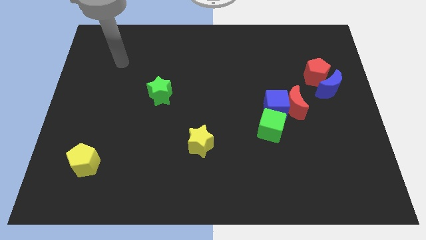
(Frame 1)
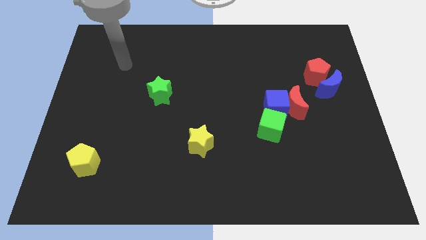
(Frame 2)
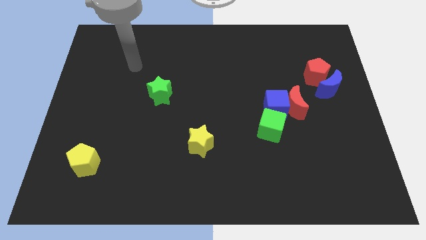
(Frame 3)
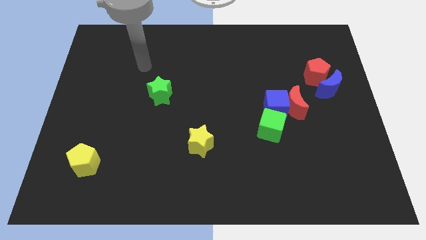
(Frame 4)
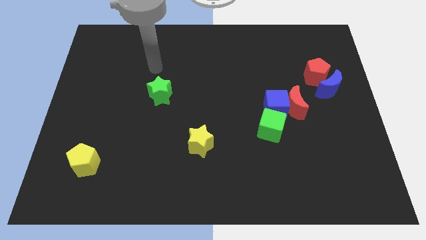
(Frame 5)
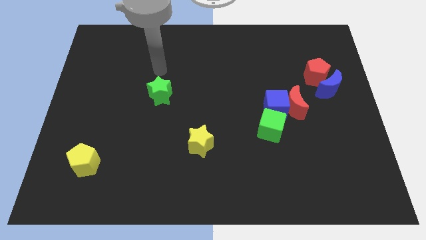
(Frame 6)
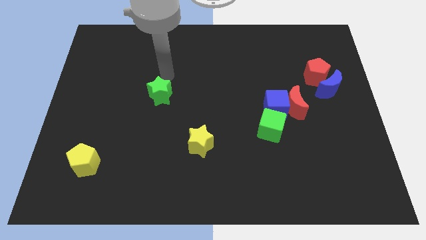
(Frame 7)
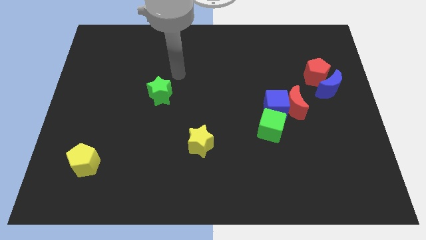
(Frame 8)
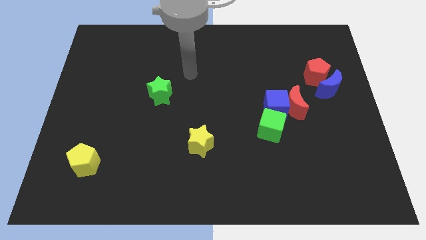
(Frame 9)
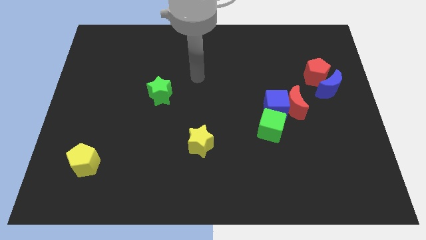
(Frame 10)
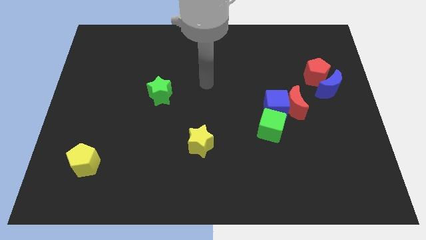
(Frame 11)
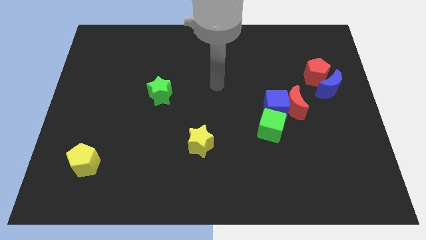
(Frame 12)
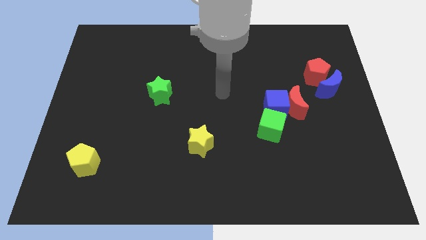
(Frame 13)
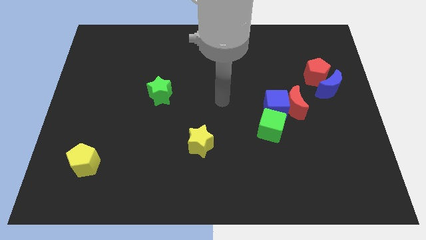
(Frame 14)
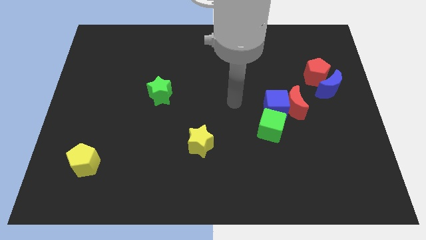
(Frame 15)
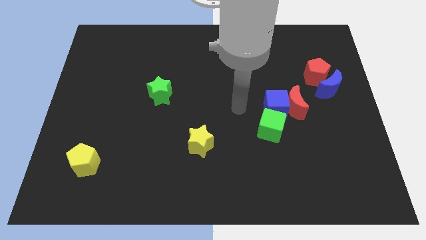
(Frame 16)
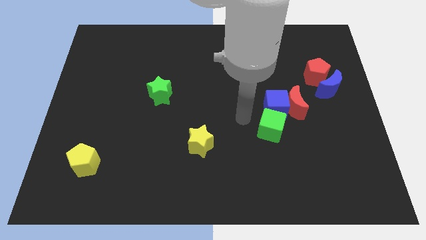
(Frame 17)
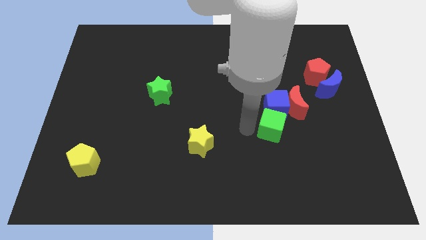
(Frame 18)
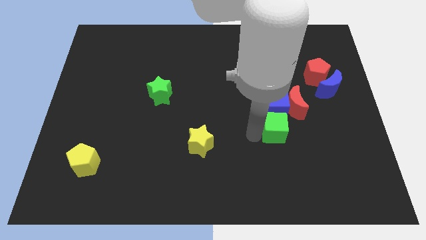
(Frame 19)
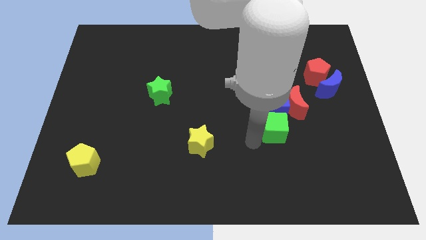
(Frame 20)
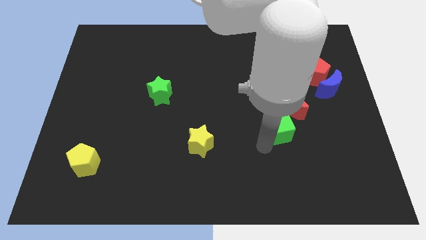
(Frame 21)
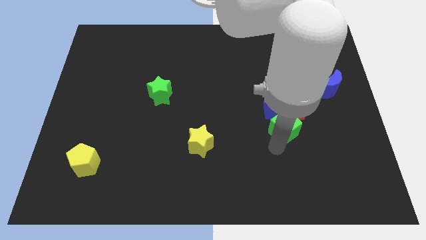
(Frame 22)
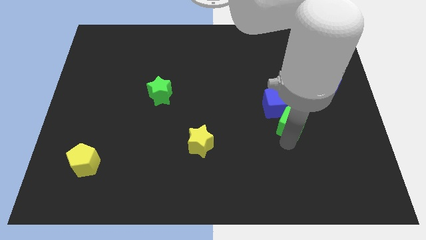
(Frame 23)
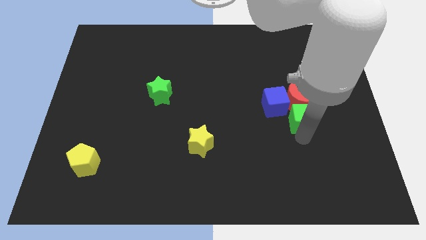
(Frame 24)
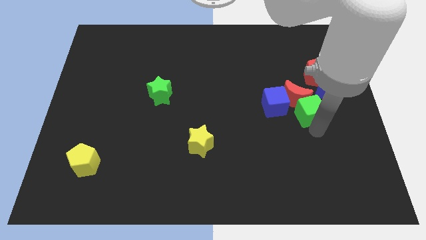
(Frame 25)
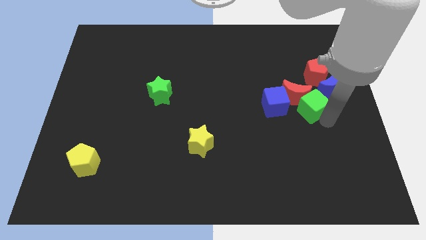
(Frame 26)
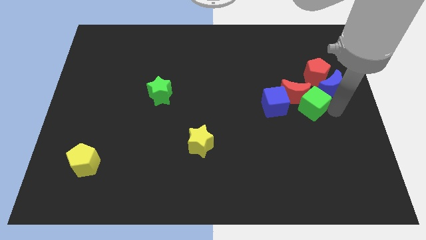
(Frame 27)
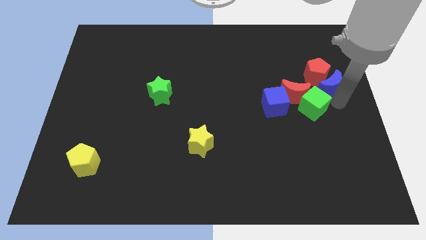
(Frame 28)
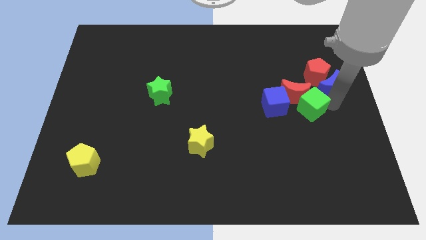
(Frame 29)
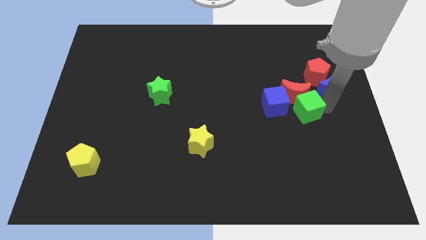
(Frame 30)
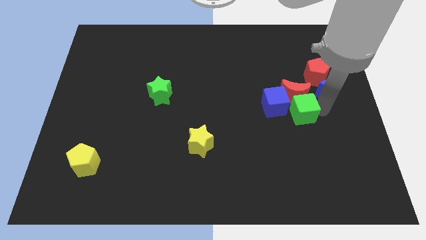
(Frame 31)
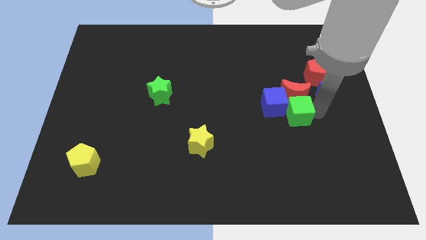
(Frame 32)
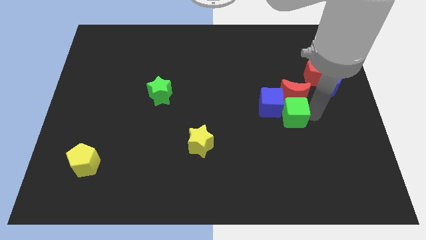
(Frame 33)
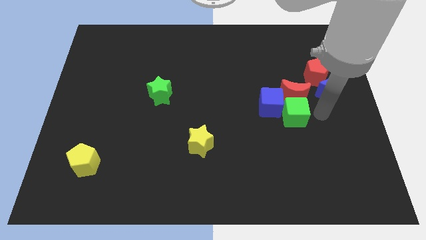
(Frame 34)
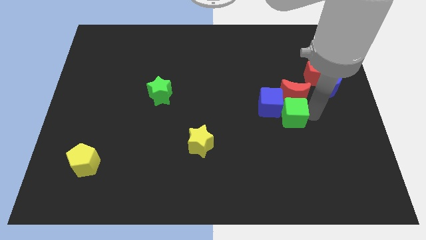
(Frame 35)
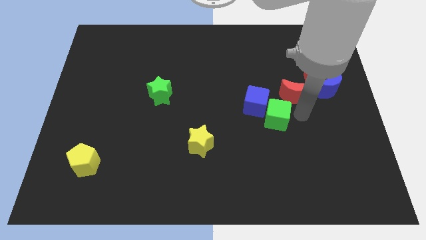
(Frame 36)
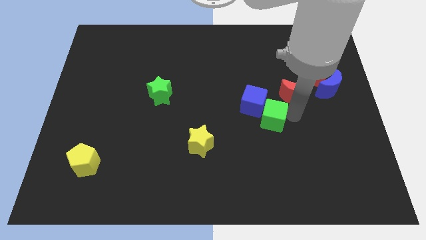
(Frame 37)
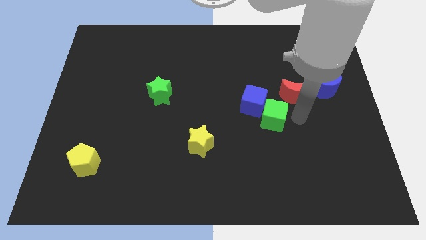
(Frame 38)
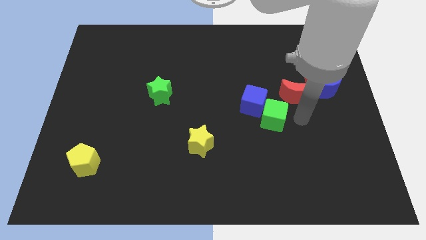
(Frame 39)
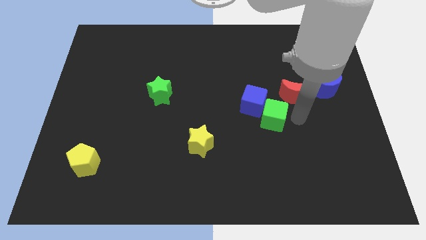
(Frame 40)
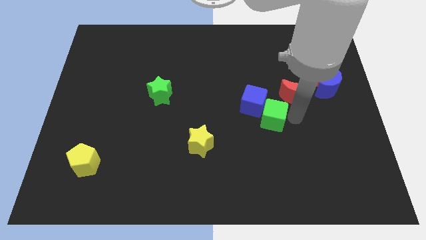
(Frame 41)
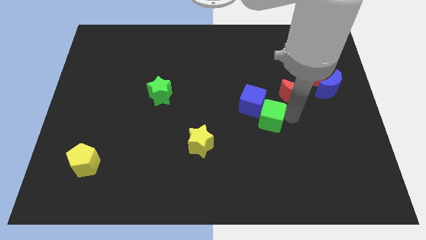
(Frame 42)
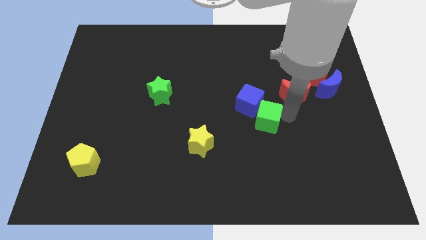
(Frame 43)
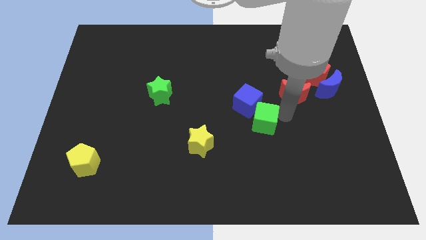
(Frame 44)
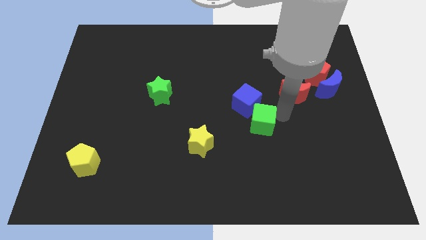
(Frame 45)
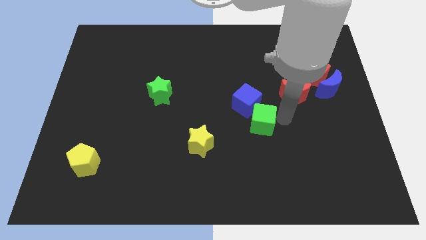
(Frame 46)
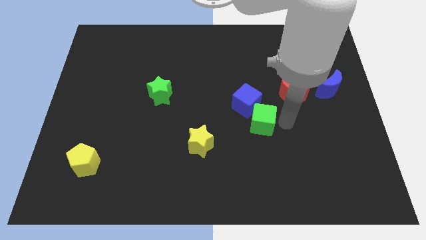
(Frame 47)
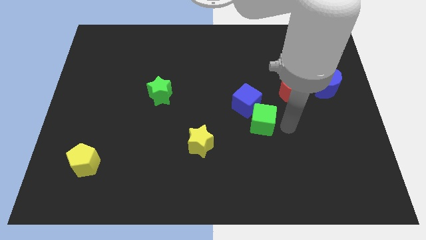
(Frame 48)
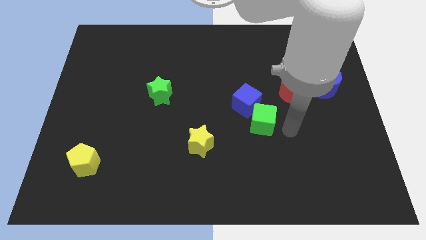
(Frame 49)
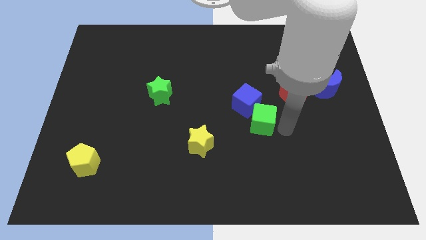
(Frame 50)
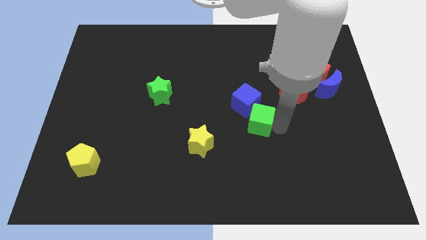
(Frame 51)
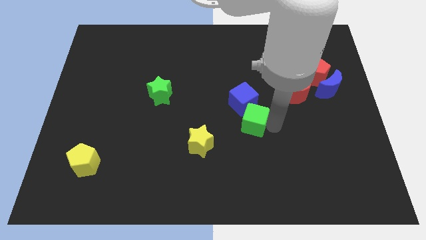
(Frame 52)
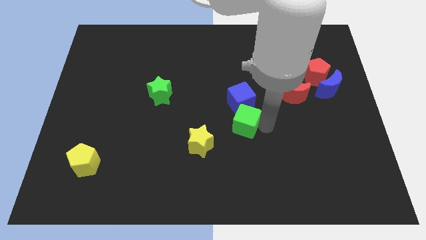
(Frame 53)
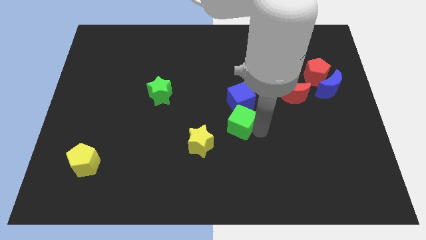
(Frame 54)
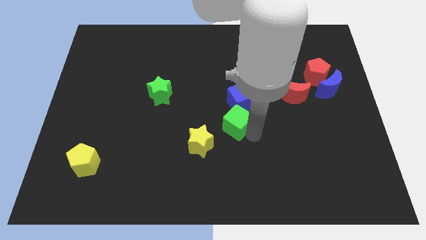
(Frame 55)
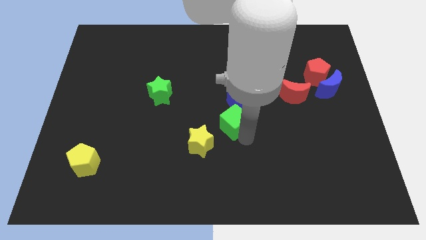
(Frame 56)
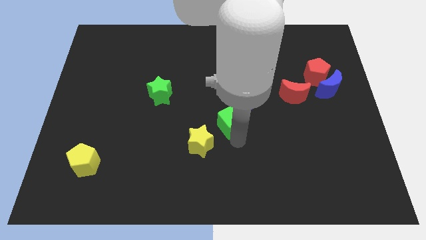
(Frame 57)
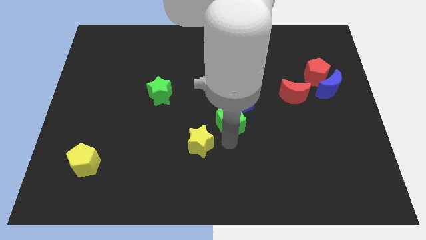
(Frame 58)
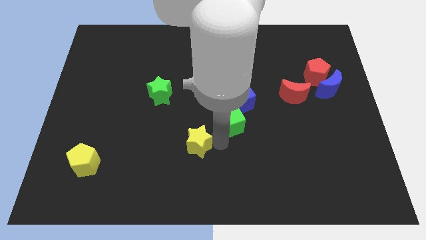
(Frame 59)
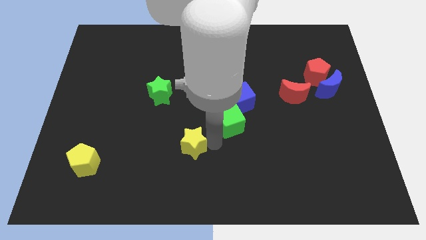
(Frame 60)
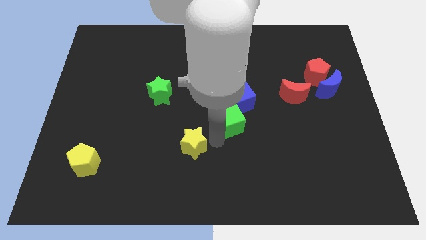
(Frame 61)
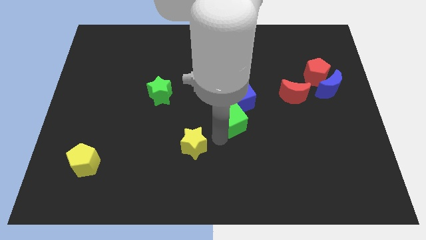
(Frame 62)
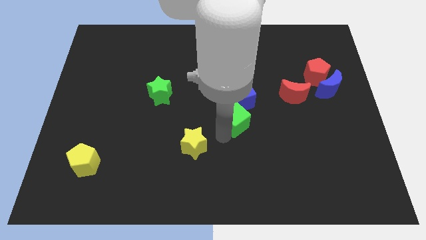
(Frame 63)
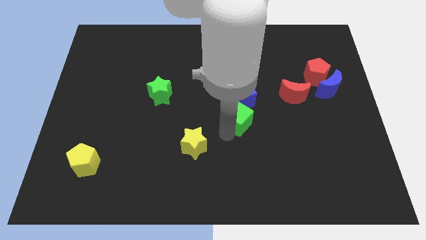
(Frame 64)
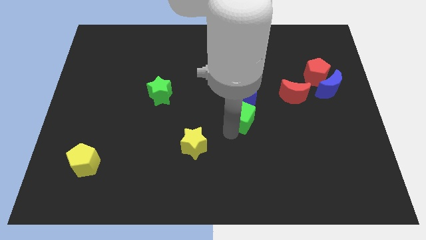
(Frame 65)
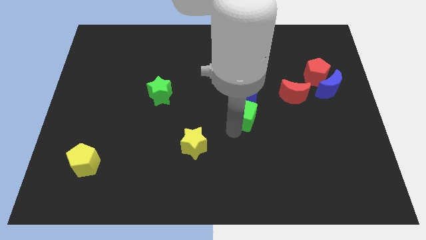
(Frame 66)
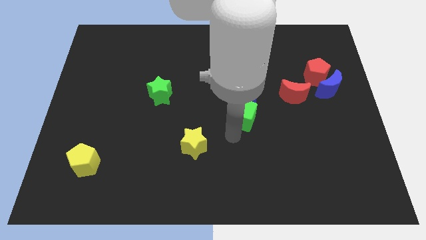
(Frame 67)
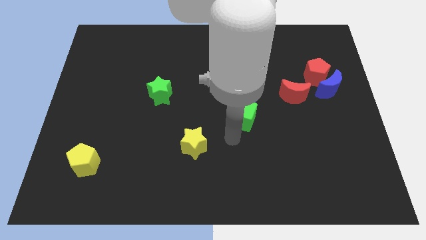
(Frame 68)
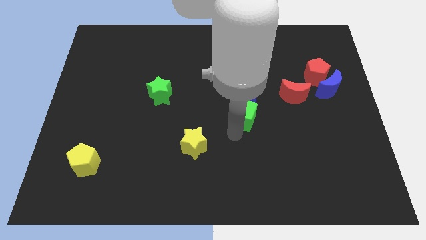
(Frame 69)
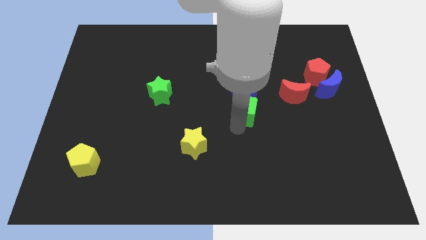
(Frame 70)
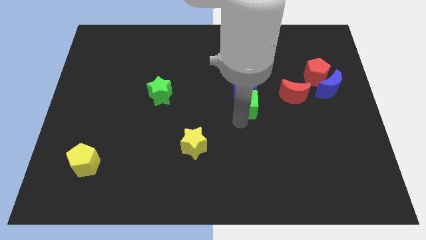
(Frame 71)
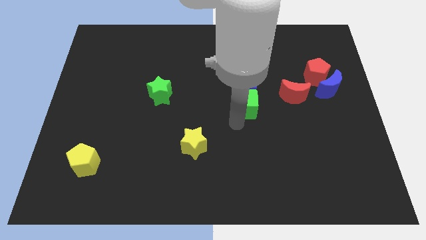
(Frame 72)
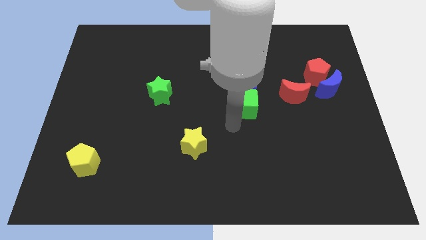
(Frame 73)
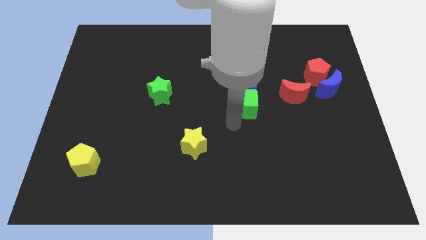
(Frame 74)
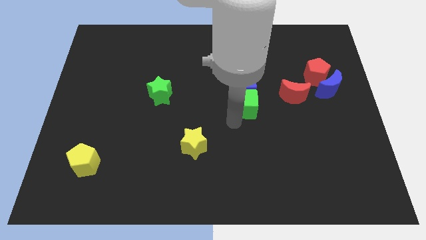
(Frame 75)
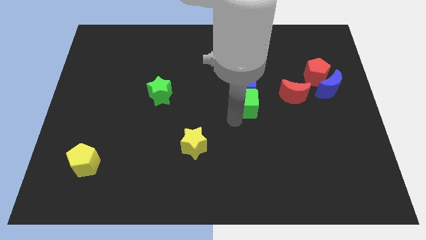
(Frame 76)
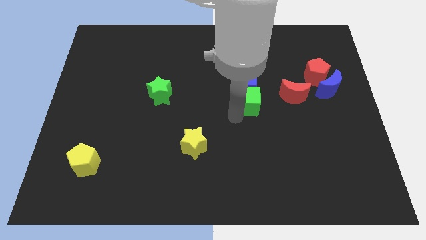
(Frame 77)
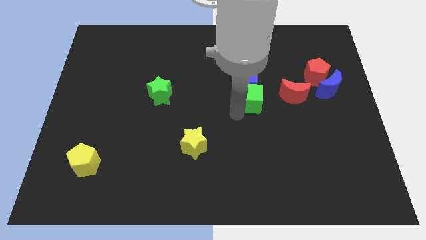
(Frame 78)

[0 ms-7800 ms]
slightly push the green cube upwards
